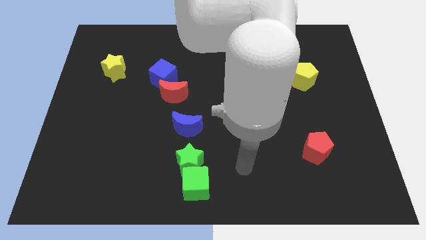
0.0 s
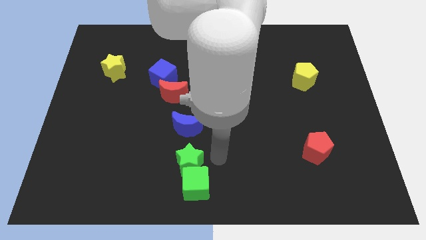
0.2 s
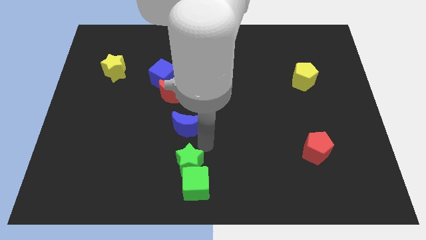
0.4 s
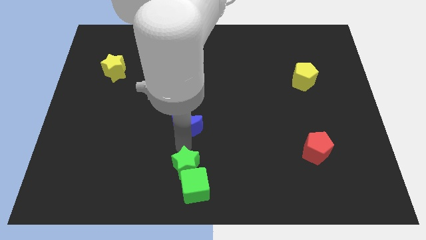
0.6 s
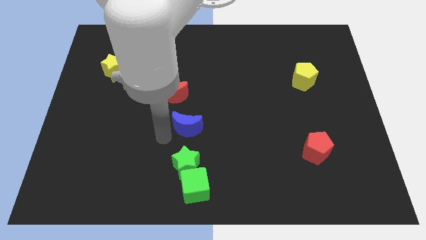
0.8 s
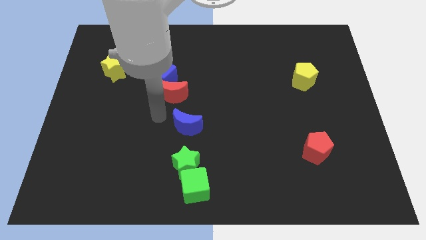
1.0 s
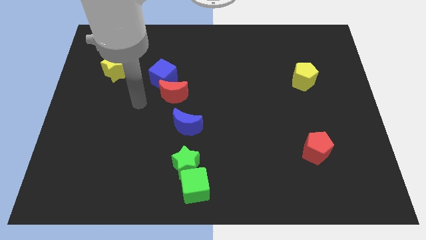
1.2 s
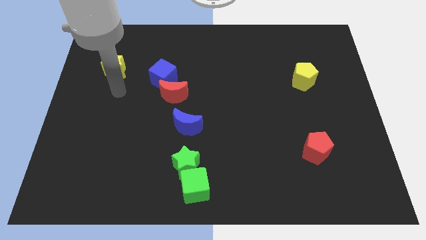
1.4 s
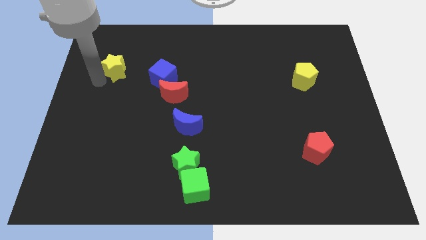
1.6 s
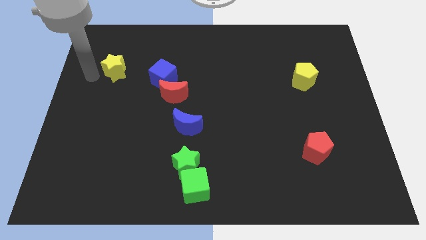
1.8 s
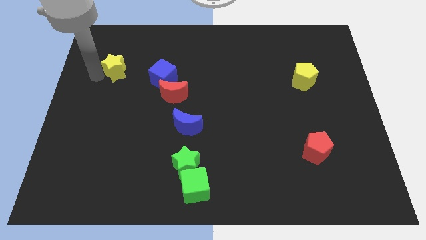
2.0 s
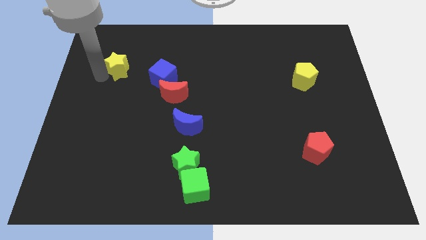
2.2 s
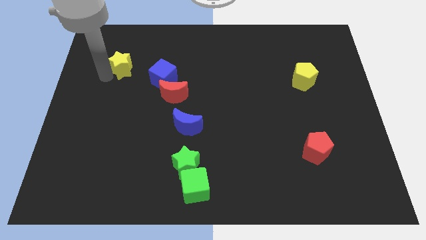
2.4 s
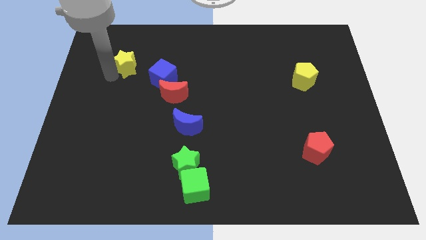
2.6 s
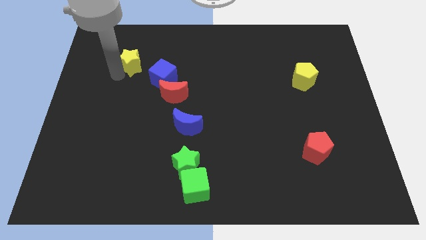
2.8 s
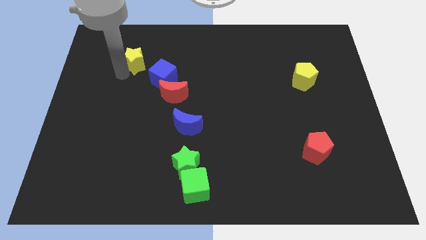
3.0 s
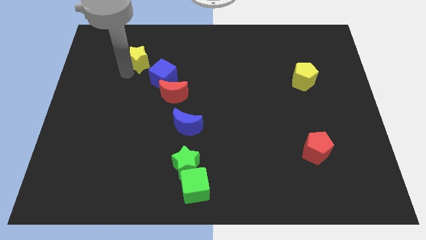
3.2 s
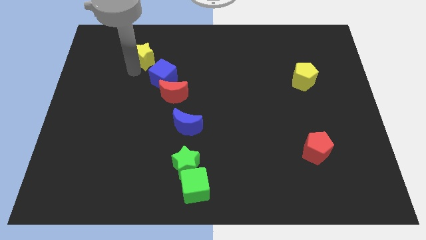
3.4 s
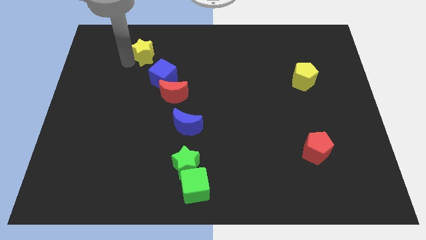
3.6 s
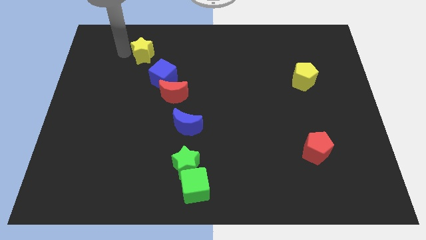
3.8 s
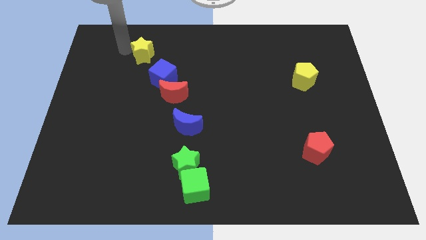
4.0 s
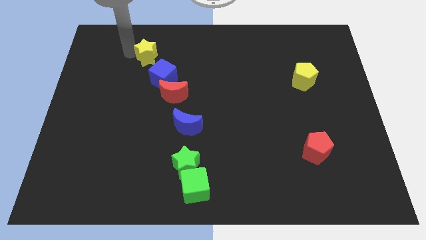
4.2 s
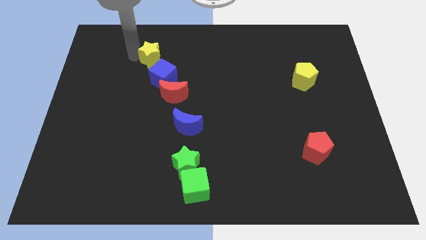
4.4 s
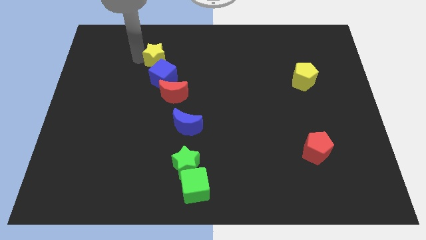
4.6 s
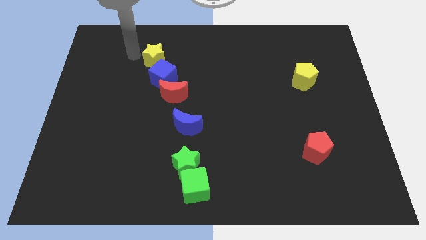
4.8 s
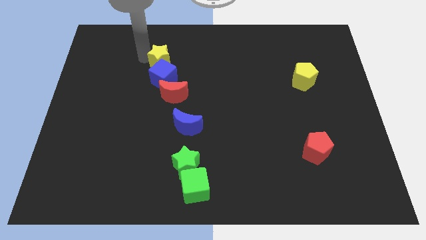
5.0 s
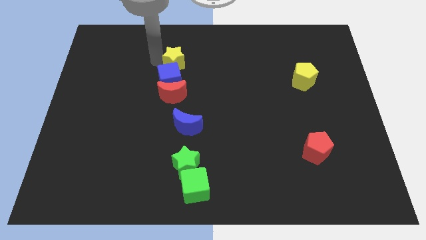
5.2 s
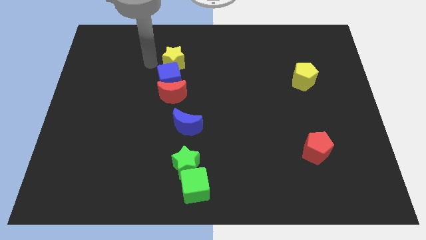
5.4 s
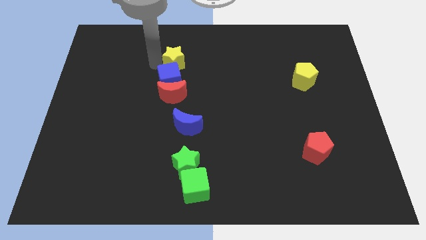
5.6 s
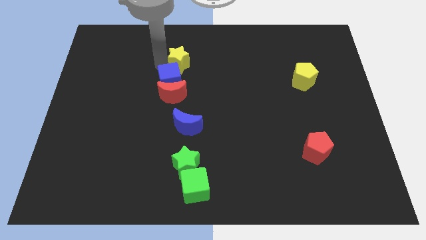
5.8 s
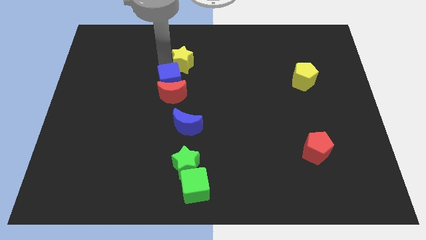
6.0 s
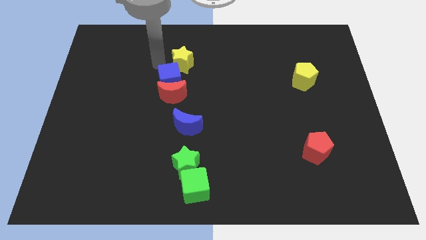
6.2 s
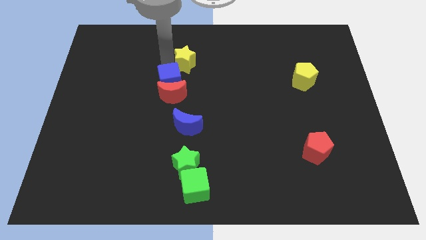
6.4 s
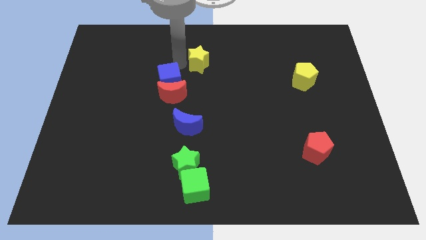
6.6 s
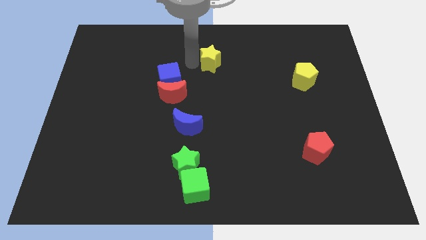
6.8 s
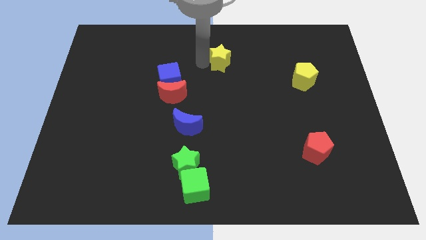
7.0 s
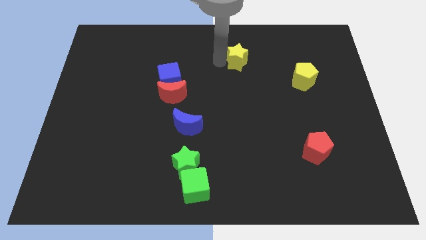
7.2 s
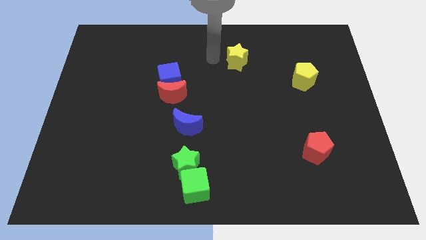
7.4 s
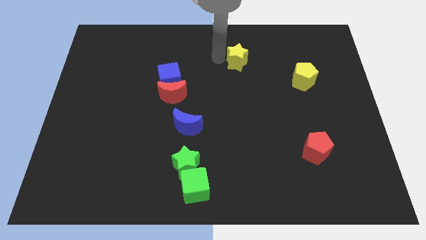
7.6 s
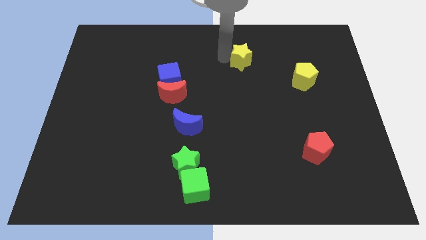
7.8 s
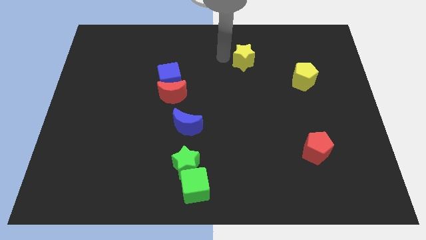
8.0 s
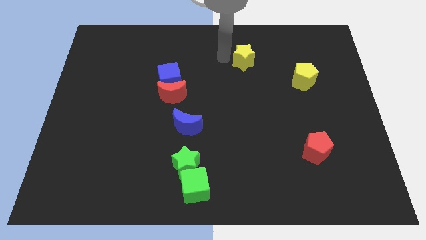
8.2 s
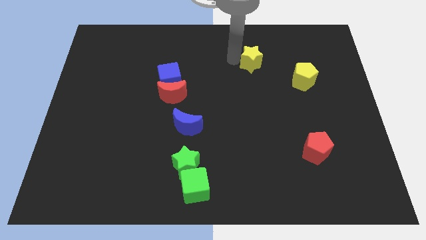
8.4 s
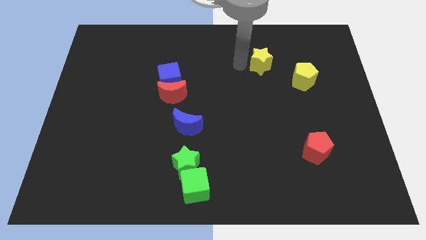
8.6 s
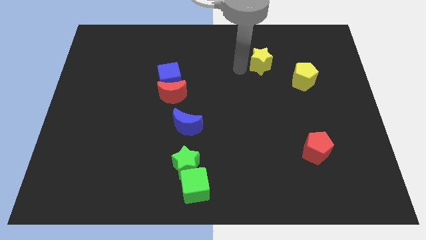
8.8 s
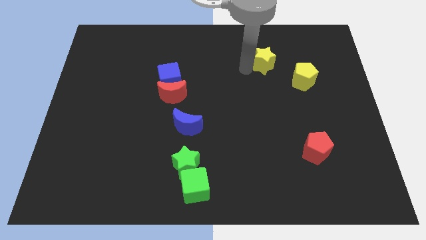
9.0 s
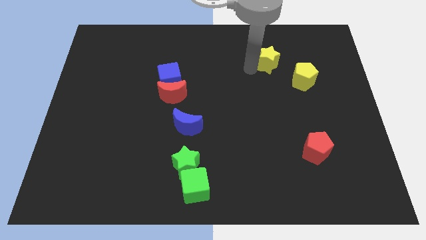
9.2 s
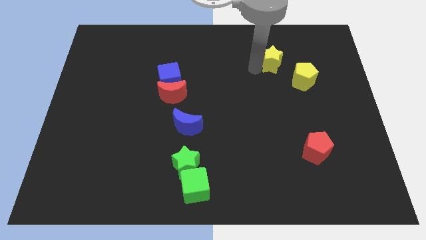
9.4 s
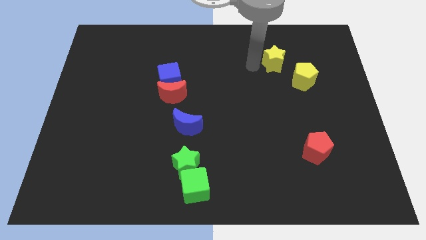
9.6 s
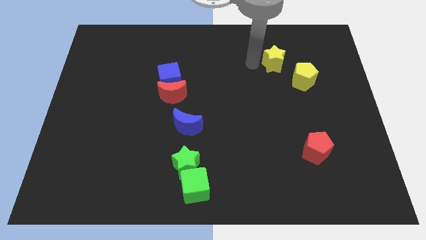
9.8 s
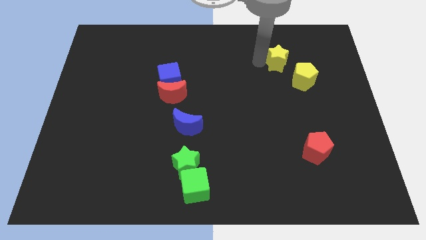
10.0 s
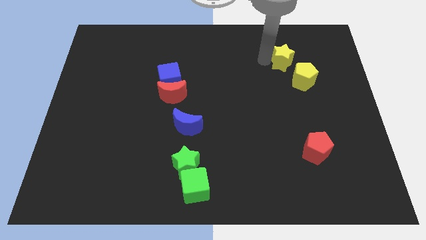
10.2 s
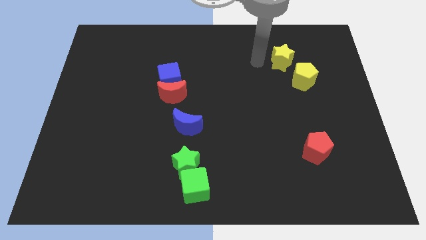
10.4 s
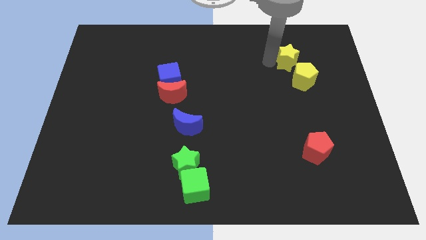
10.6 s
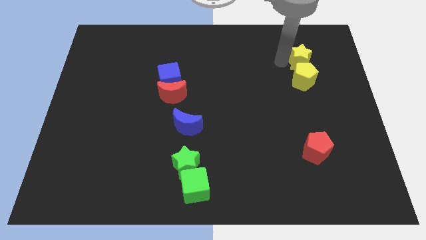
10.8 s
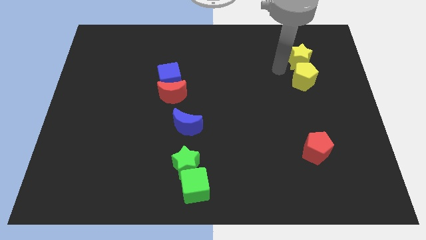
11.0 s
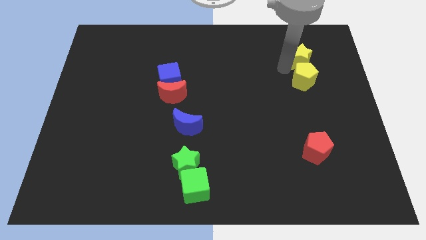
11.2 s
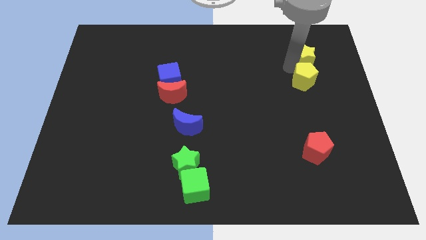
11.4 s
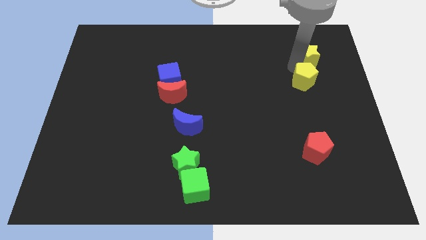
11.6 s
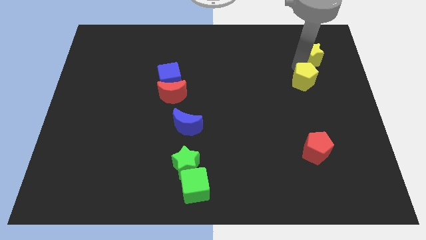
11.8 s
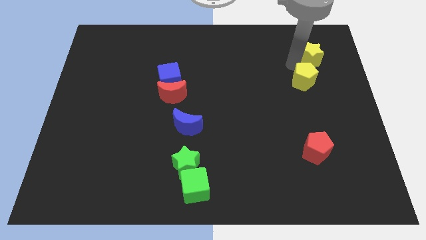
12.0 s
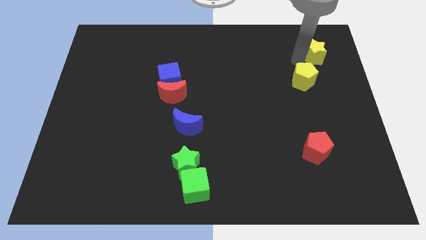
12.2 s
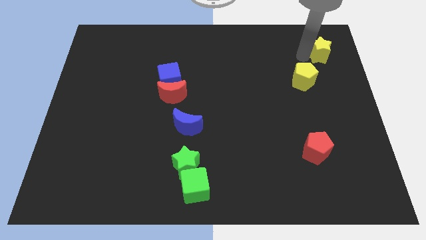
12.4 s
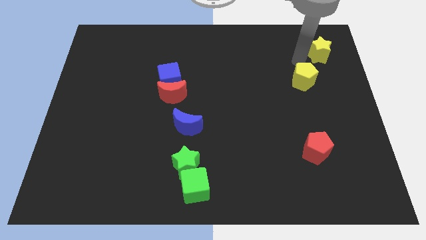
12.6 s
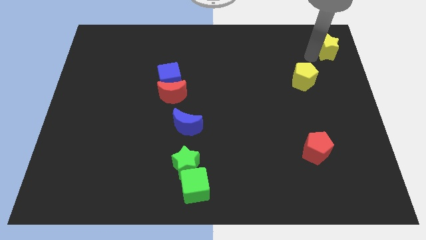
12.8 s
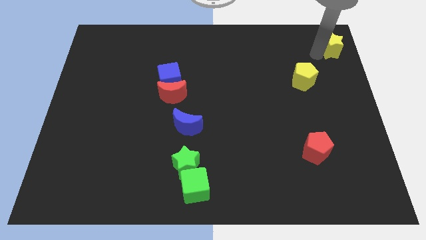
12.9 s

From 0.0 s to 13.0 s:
slide the yellow star to the top right of the board
